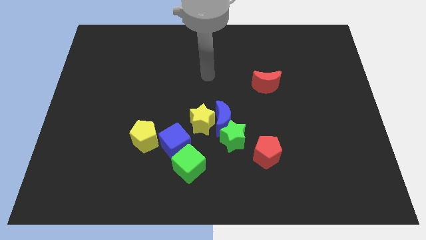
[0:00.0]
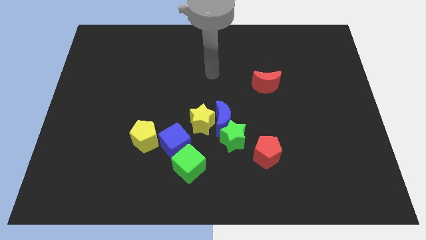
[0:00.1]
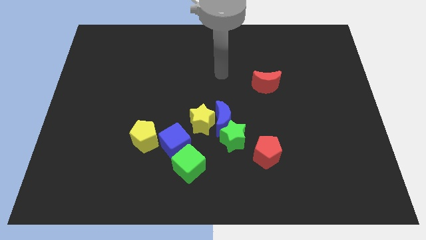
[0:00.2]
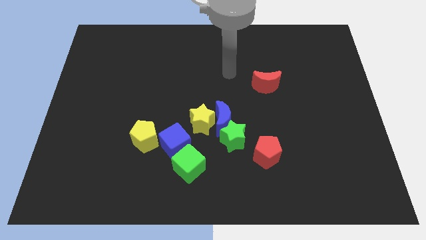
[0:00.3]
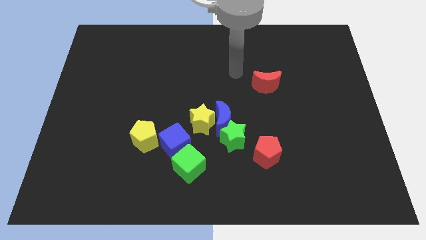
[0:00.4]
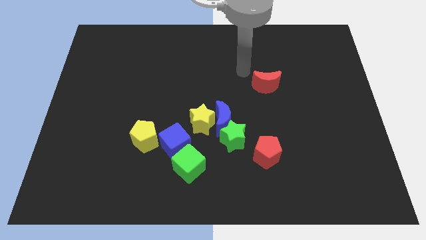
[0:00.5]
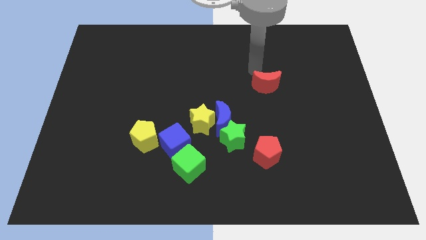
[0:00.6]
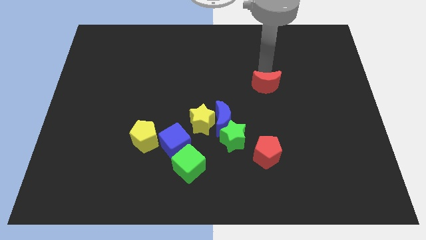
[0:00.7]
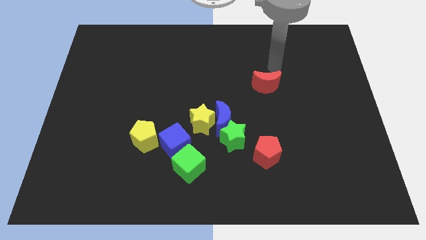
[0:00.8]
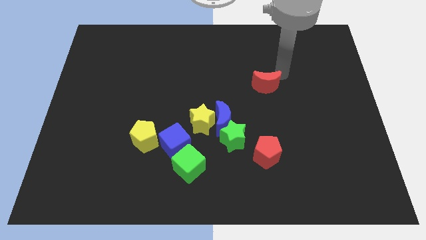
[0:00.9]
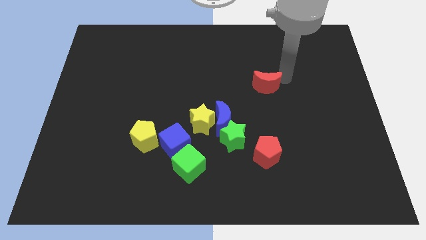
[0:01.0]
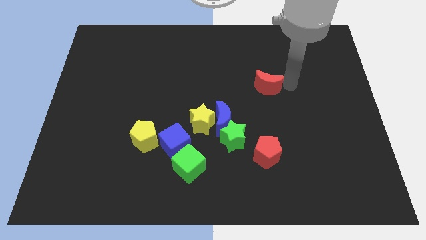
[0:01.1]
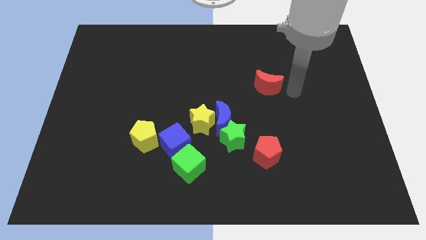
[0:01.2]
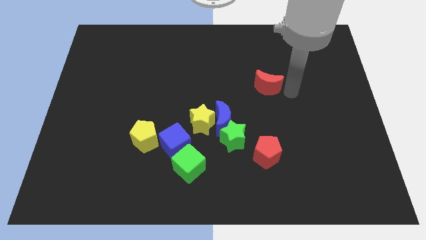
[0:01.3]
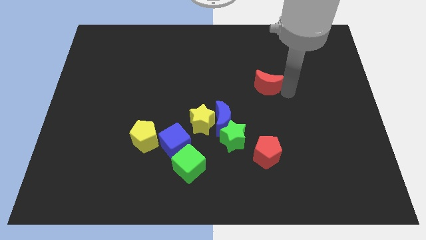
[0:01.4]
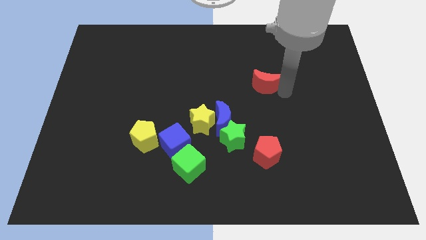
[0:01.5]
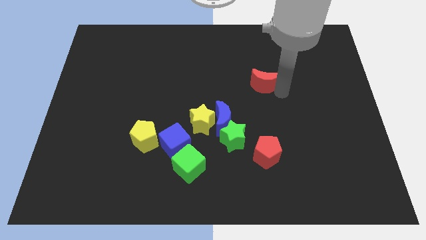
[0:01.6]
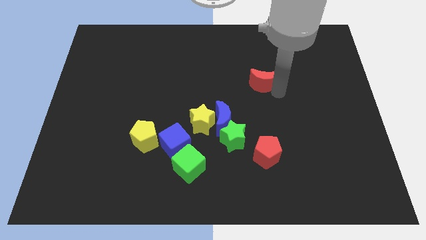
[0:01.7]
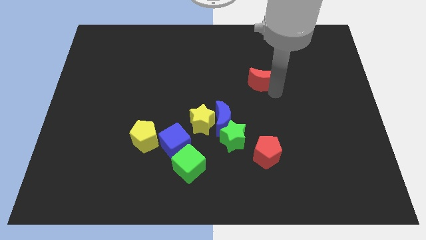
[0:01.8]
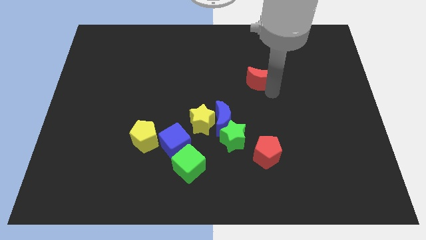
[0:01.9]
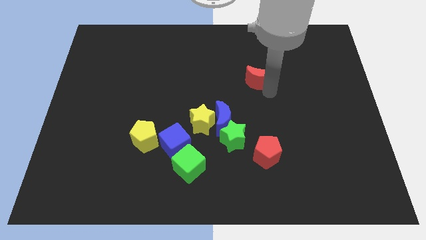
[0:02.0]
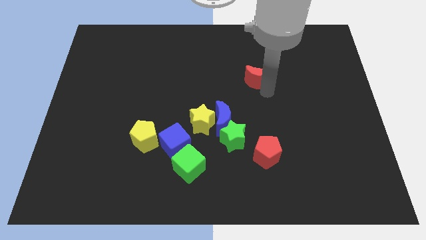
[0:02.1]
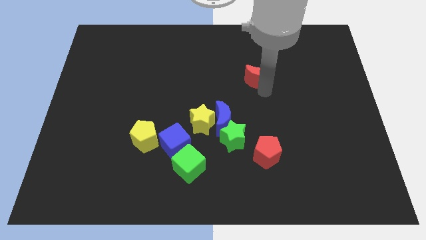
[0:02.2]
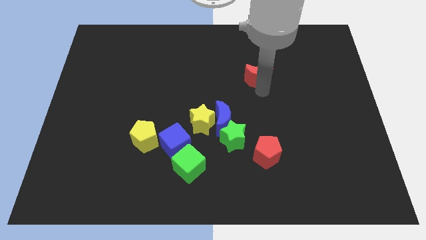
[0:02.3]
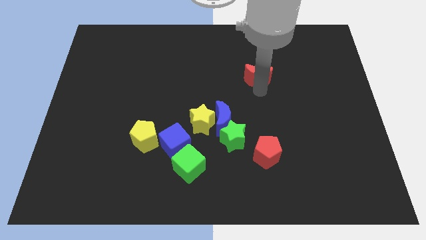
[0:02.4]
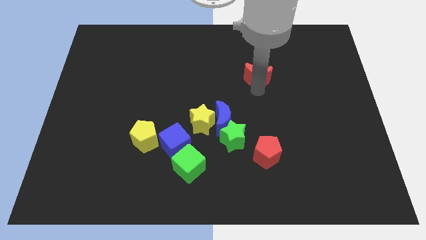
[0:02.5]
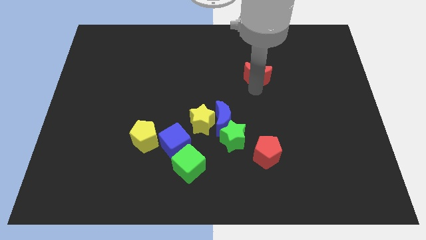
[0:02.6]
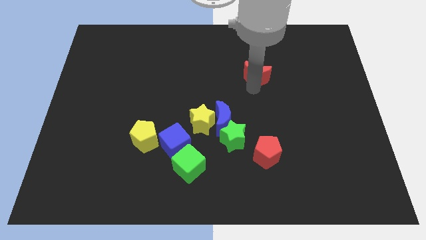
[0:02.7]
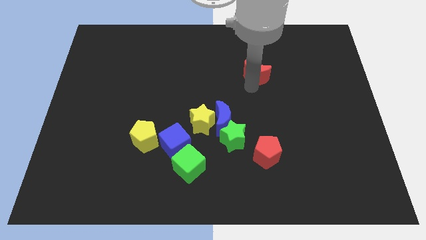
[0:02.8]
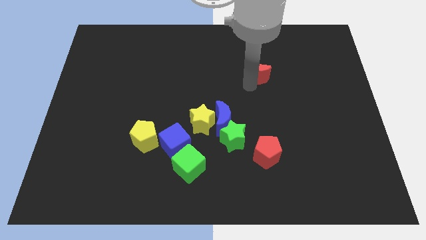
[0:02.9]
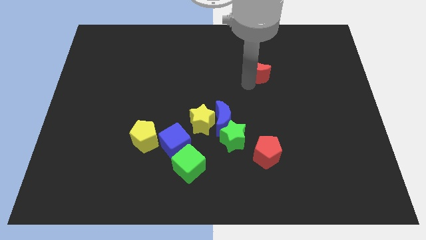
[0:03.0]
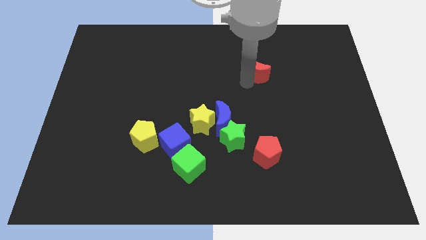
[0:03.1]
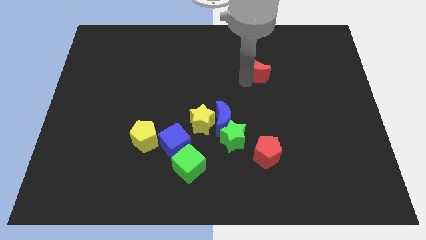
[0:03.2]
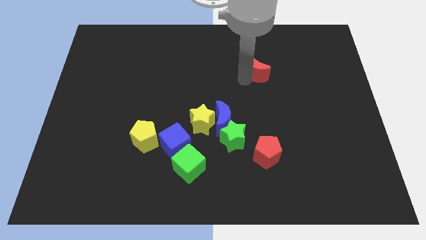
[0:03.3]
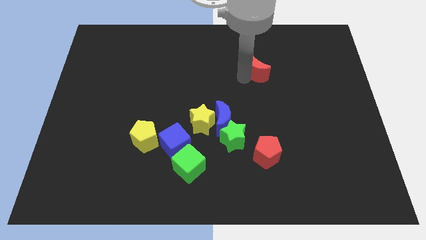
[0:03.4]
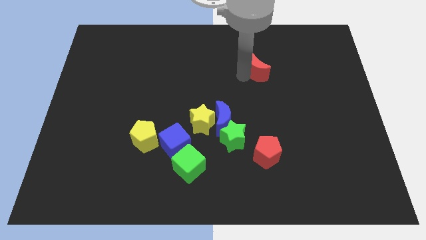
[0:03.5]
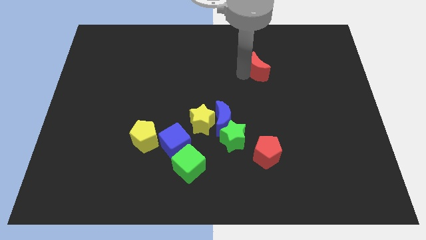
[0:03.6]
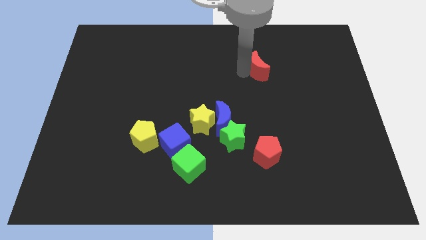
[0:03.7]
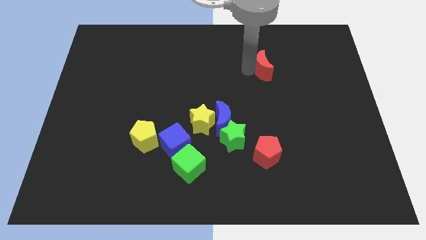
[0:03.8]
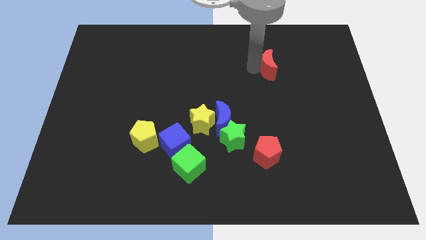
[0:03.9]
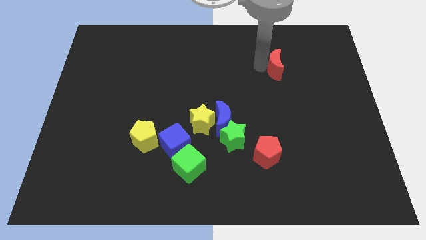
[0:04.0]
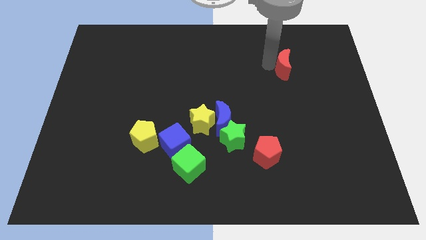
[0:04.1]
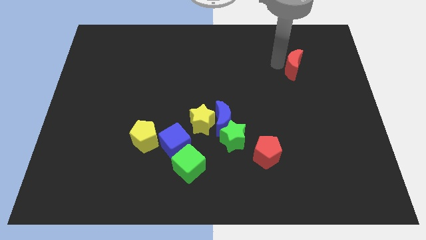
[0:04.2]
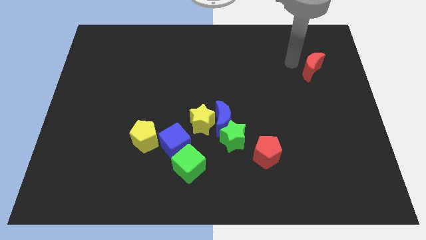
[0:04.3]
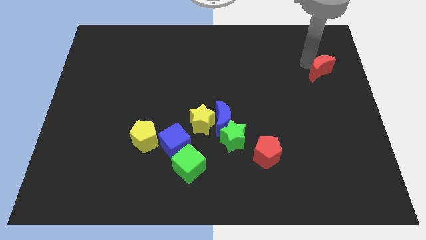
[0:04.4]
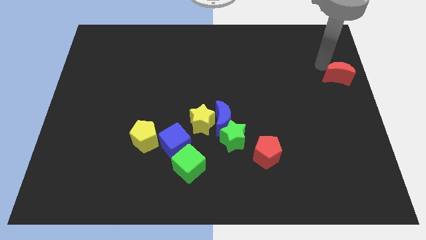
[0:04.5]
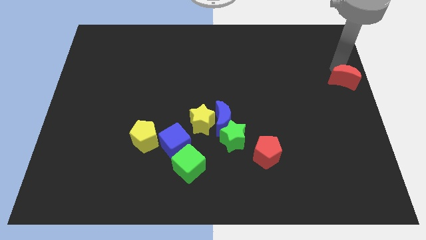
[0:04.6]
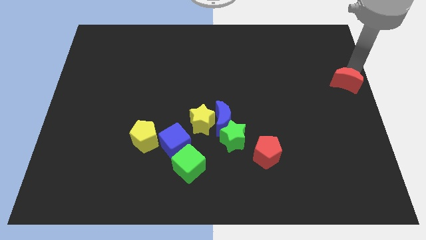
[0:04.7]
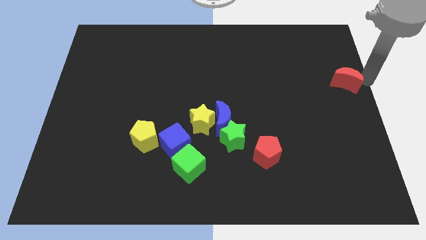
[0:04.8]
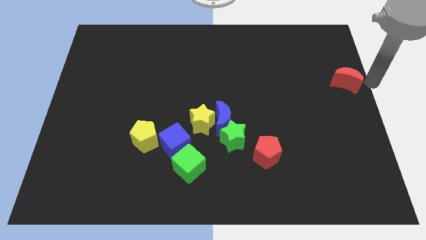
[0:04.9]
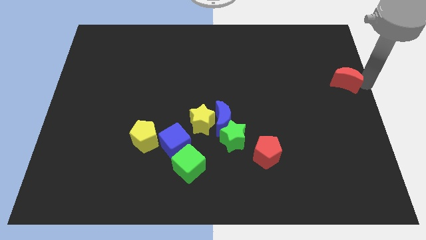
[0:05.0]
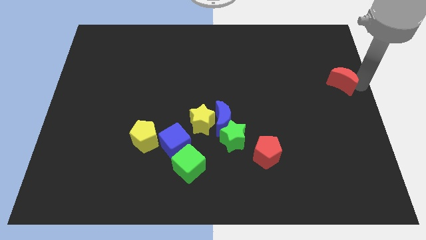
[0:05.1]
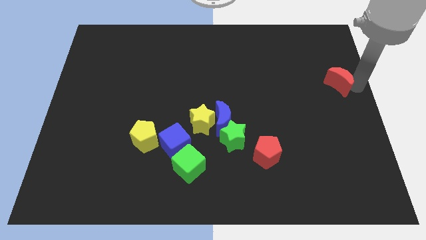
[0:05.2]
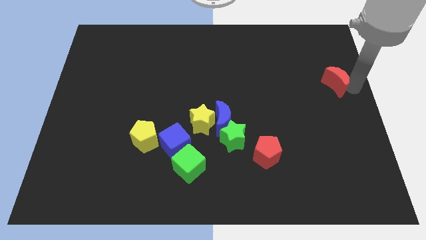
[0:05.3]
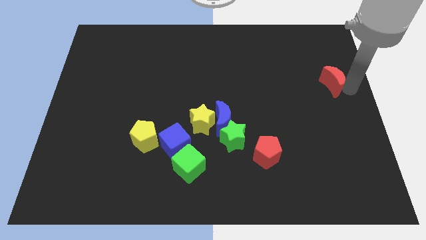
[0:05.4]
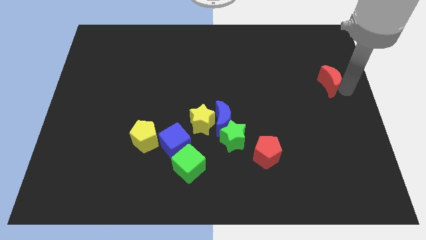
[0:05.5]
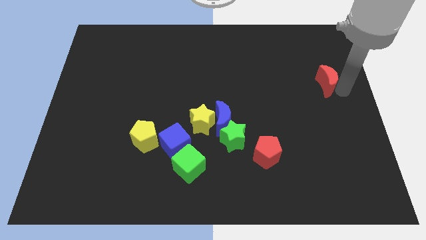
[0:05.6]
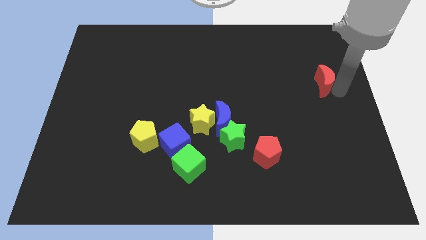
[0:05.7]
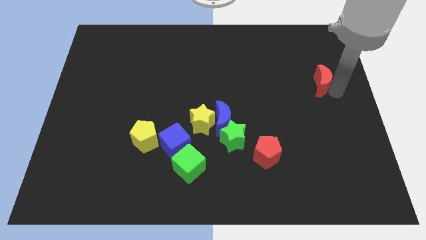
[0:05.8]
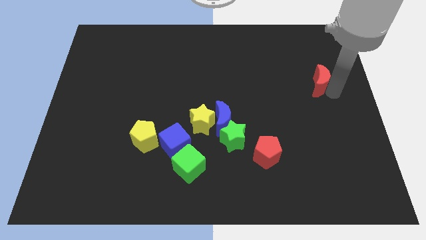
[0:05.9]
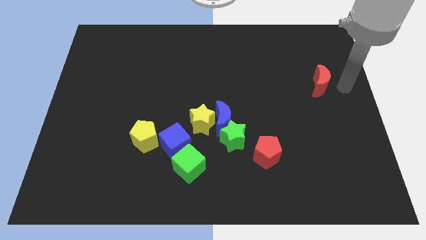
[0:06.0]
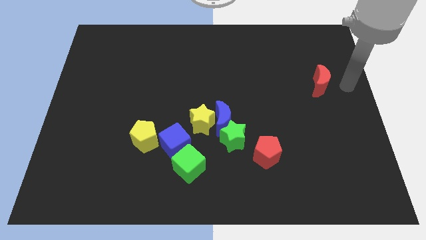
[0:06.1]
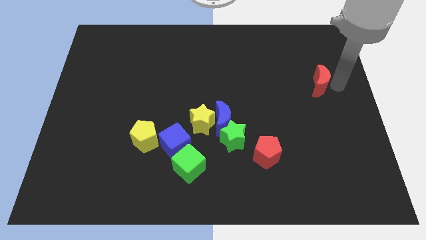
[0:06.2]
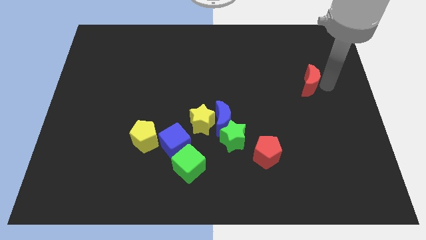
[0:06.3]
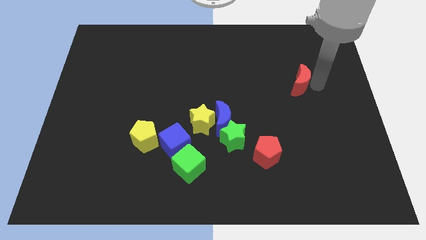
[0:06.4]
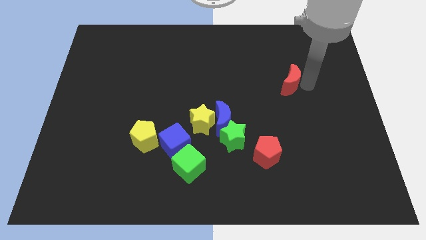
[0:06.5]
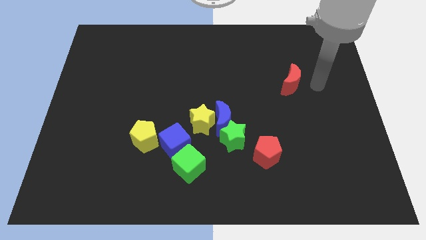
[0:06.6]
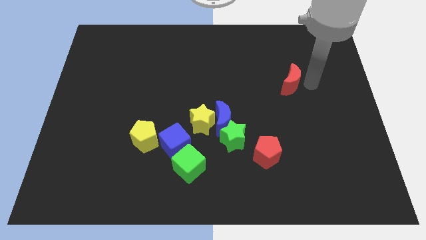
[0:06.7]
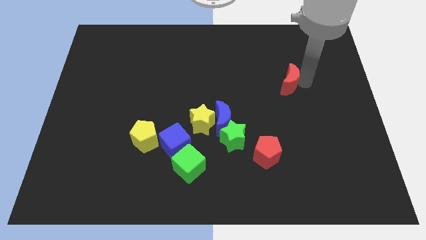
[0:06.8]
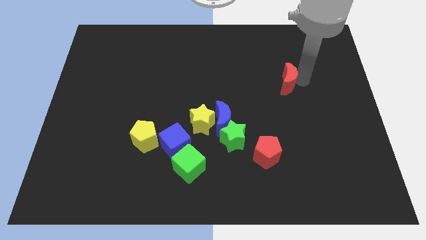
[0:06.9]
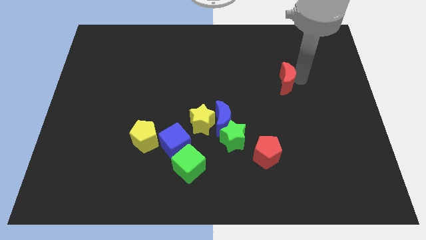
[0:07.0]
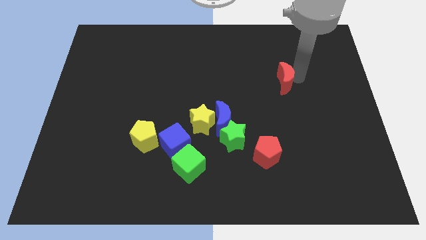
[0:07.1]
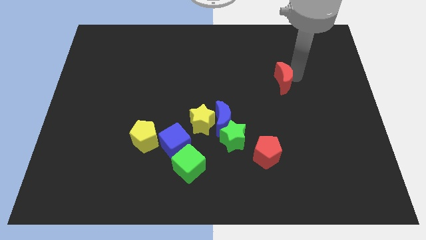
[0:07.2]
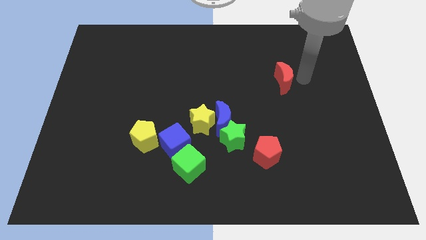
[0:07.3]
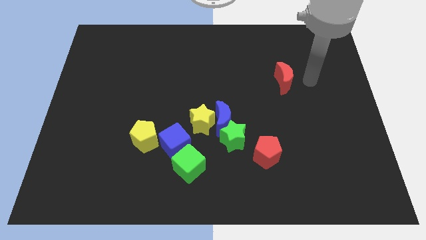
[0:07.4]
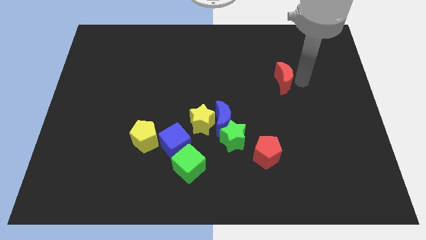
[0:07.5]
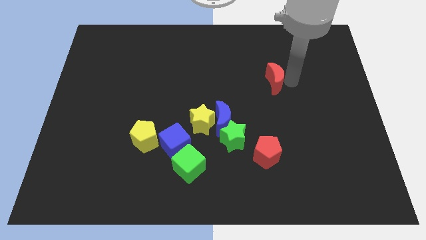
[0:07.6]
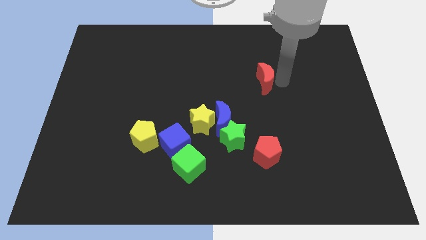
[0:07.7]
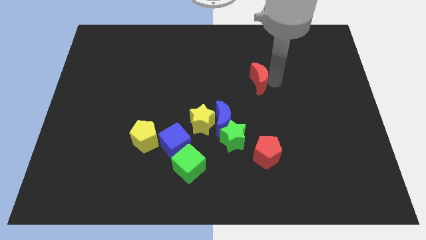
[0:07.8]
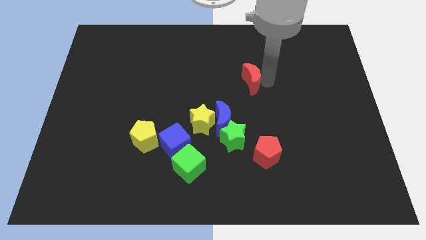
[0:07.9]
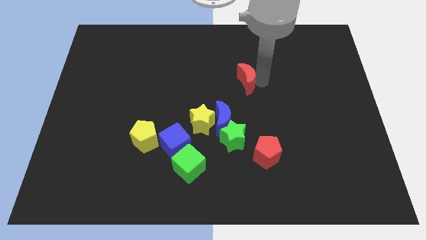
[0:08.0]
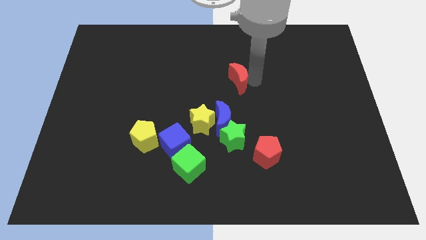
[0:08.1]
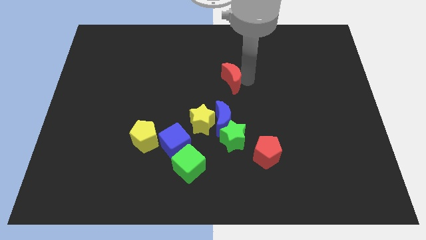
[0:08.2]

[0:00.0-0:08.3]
slightly push the red moon left
